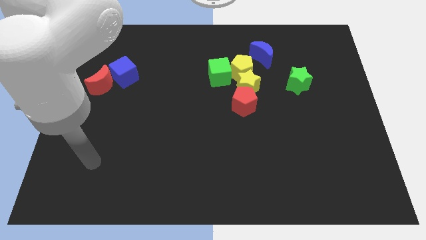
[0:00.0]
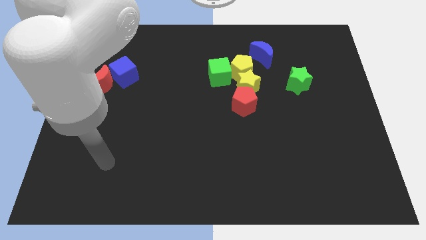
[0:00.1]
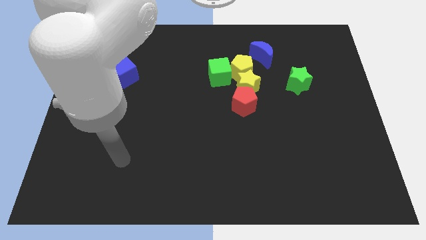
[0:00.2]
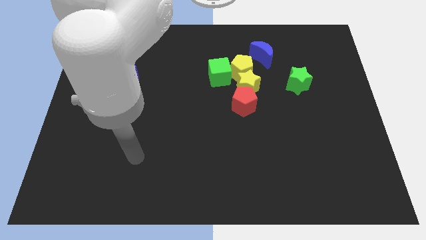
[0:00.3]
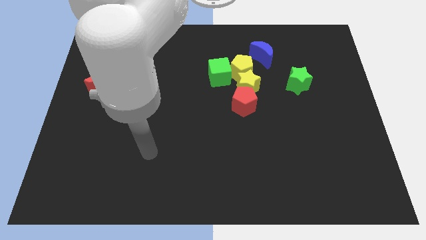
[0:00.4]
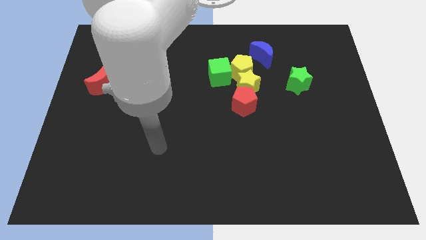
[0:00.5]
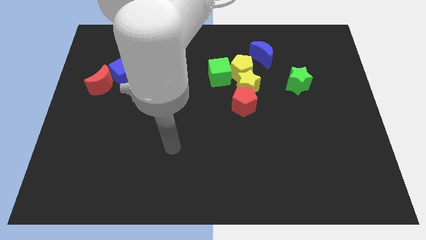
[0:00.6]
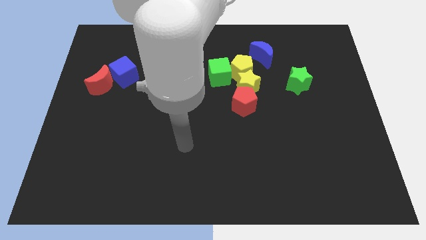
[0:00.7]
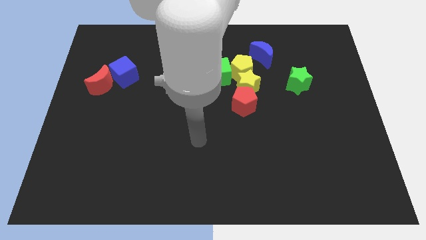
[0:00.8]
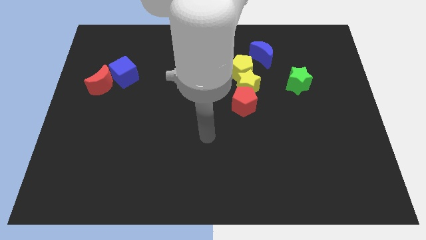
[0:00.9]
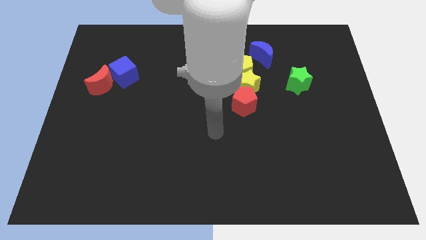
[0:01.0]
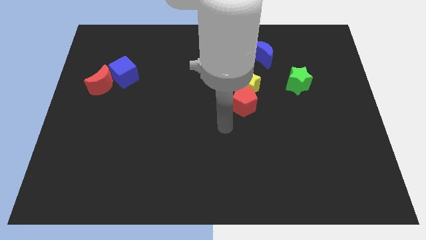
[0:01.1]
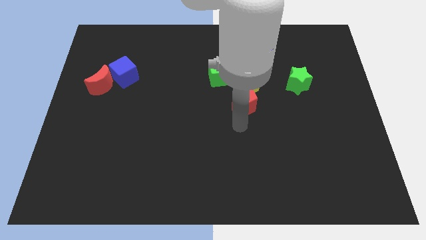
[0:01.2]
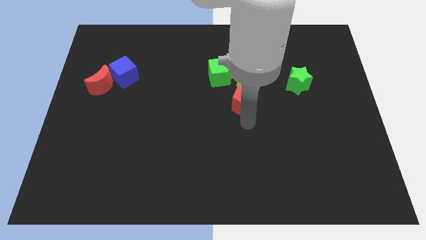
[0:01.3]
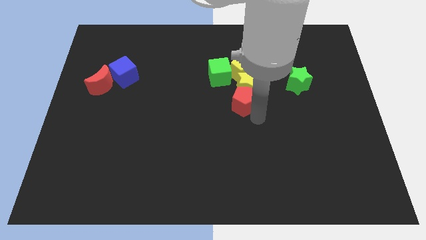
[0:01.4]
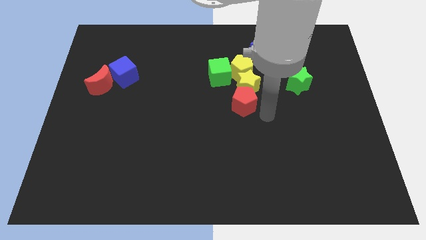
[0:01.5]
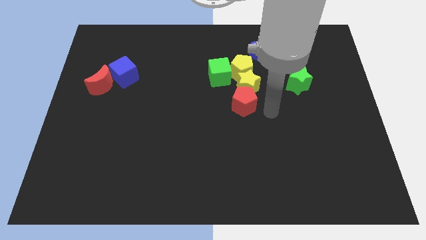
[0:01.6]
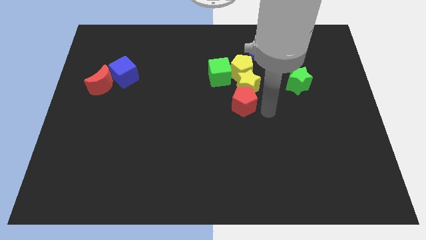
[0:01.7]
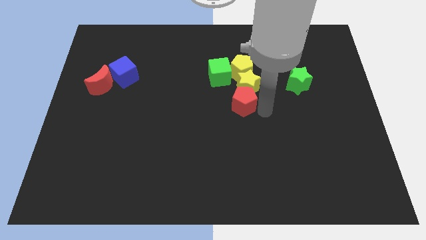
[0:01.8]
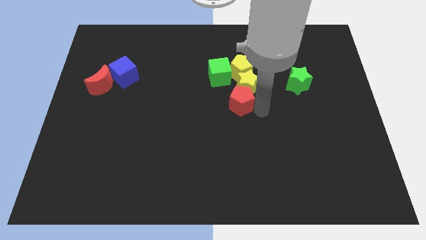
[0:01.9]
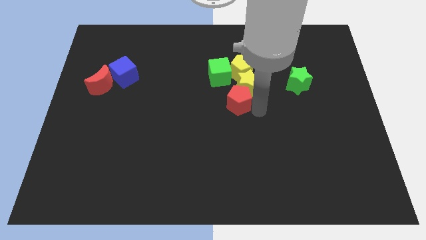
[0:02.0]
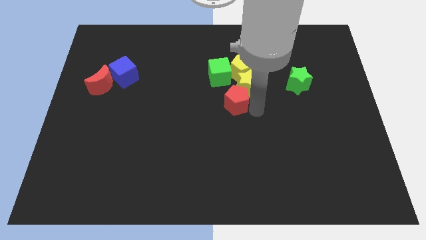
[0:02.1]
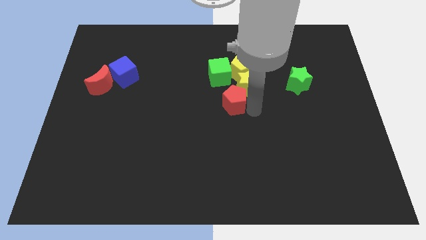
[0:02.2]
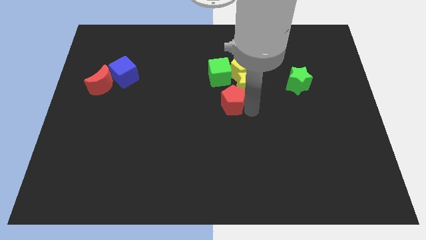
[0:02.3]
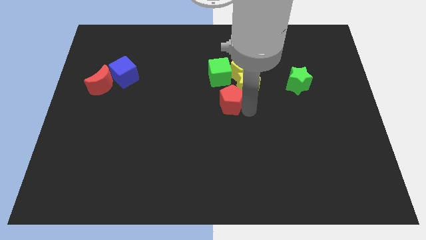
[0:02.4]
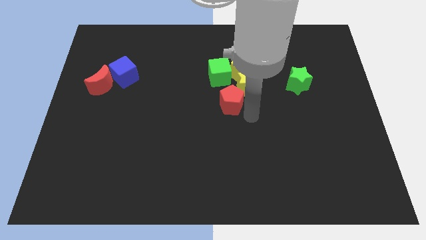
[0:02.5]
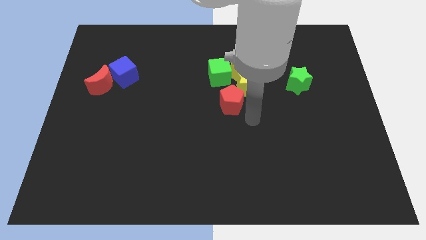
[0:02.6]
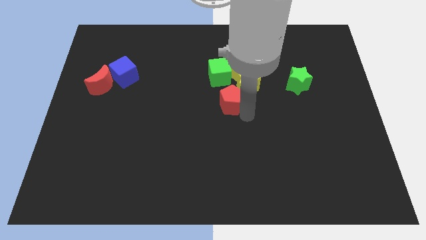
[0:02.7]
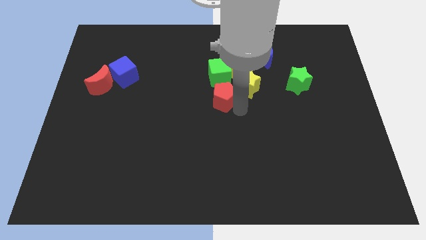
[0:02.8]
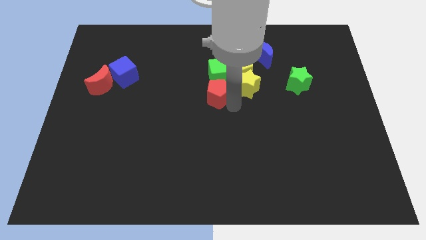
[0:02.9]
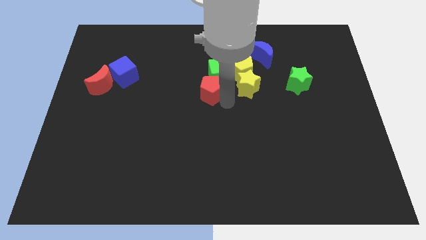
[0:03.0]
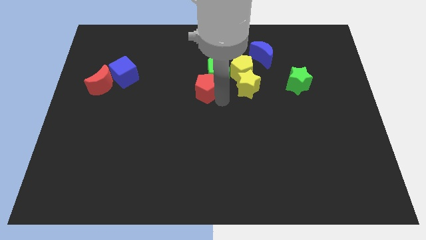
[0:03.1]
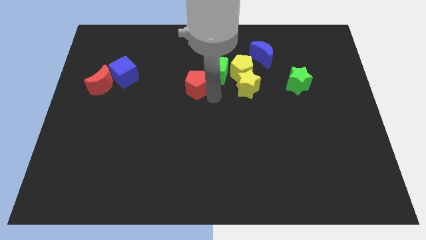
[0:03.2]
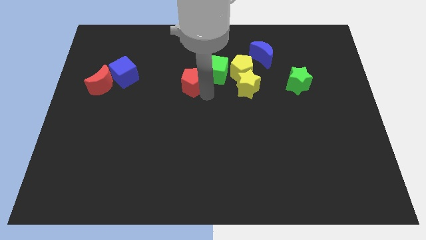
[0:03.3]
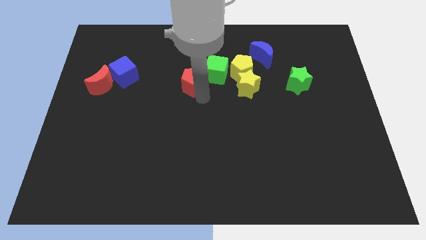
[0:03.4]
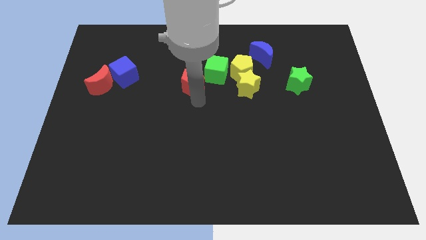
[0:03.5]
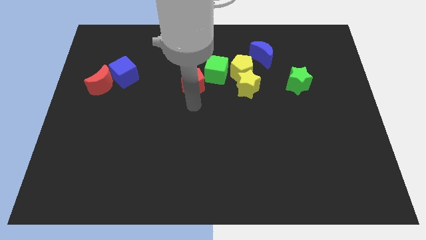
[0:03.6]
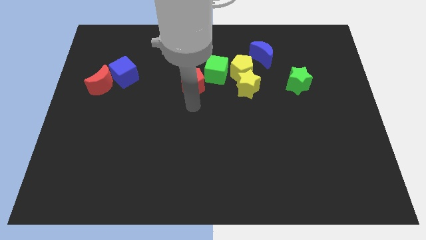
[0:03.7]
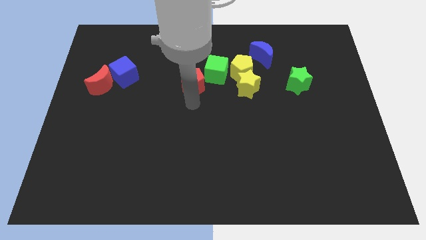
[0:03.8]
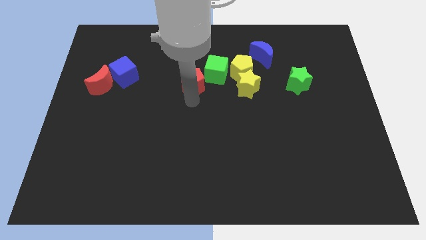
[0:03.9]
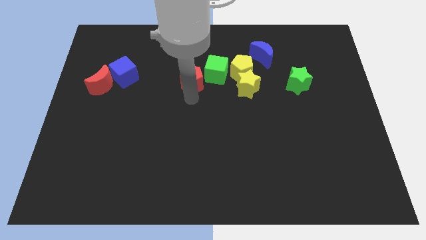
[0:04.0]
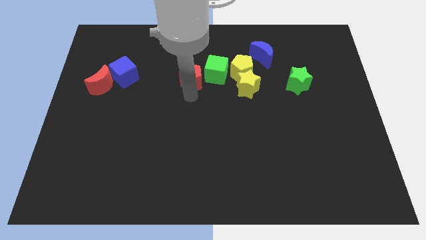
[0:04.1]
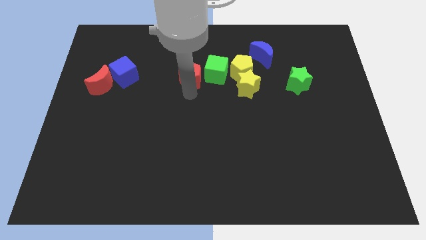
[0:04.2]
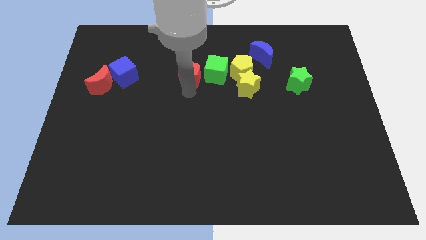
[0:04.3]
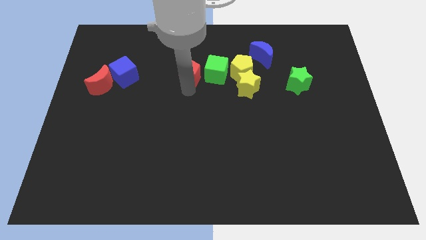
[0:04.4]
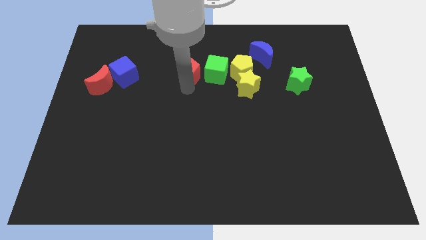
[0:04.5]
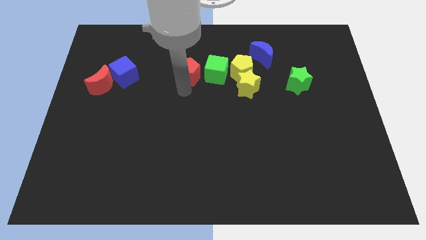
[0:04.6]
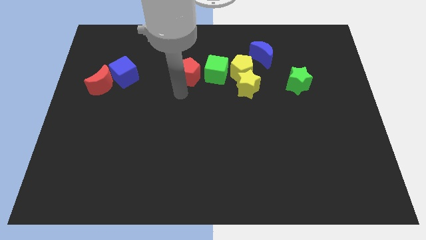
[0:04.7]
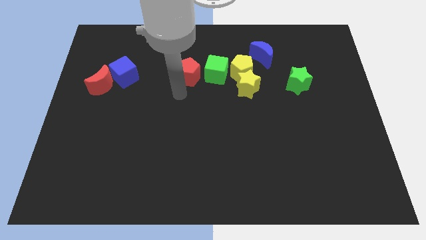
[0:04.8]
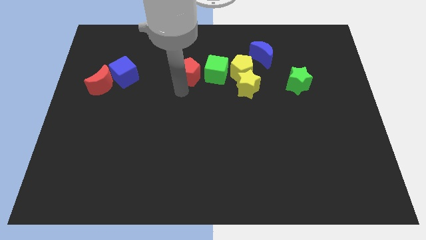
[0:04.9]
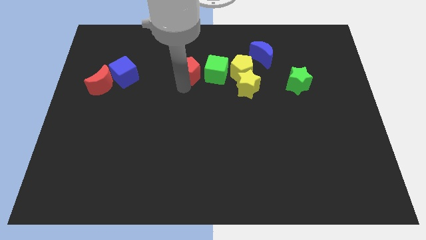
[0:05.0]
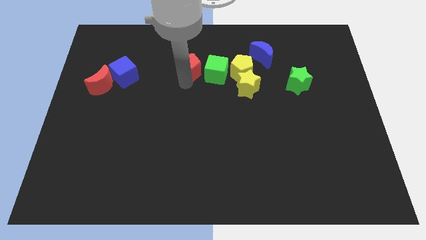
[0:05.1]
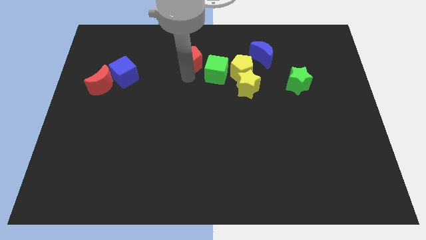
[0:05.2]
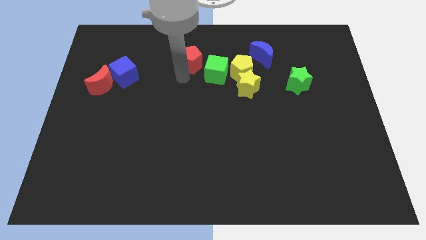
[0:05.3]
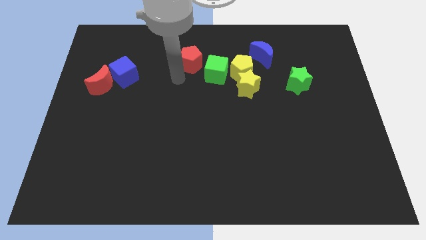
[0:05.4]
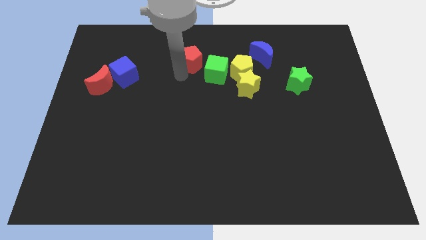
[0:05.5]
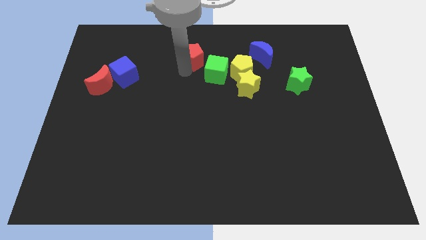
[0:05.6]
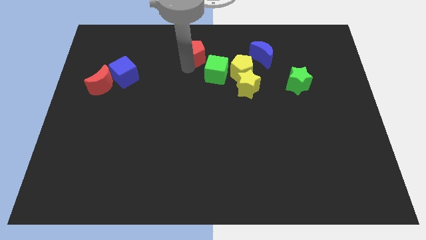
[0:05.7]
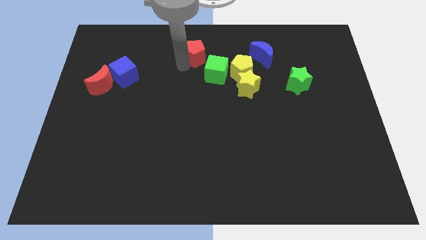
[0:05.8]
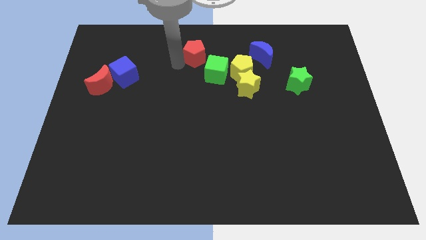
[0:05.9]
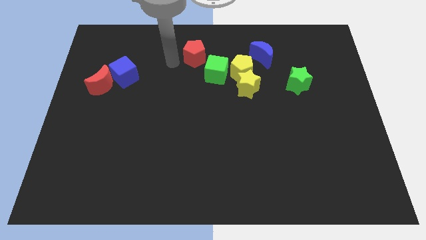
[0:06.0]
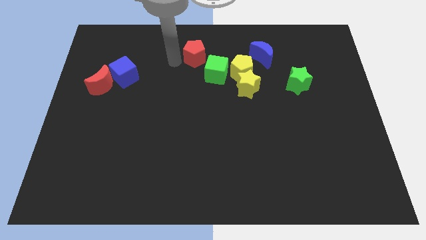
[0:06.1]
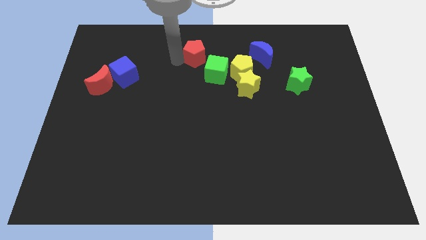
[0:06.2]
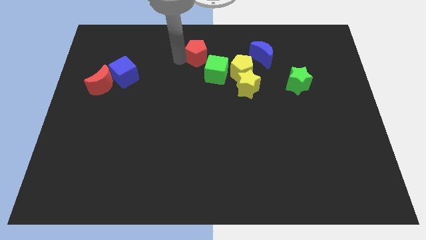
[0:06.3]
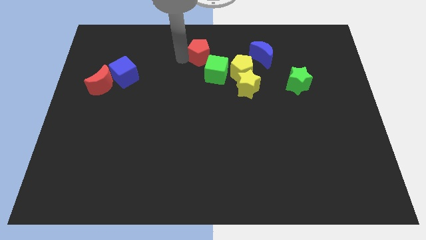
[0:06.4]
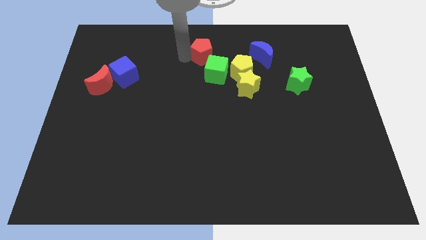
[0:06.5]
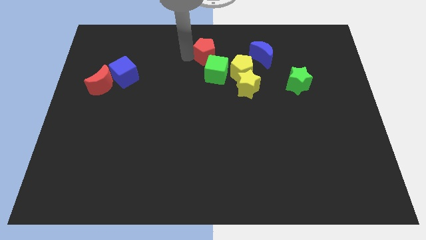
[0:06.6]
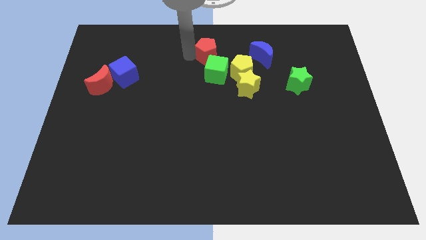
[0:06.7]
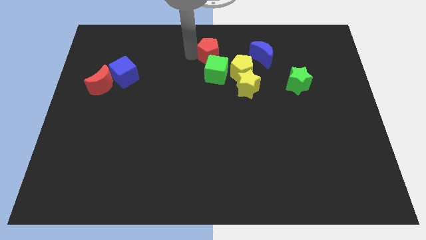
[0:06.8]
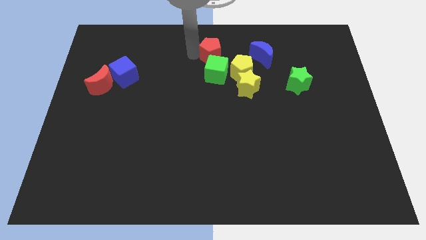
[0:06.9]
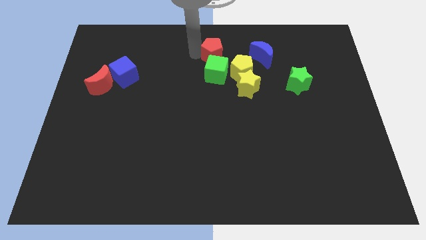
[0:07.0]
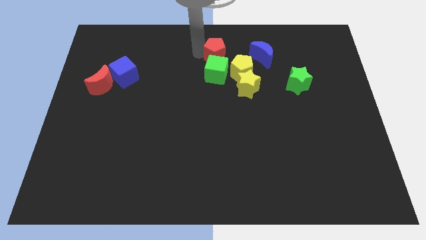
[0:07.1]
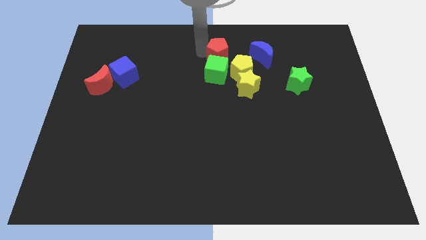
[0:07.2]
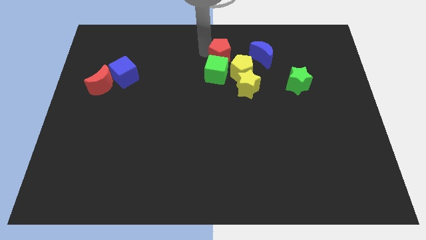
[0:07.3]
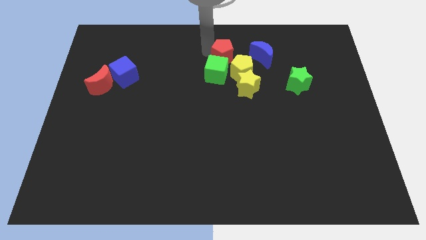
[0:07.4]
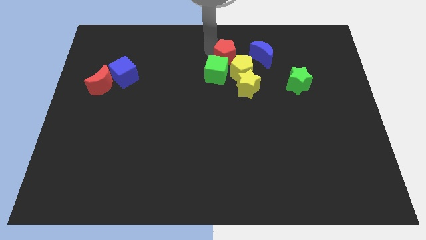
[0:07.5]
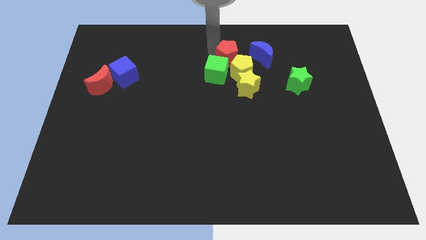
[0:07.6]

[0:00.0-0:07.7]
slide the red pentagon to the top side of the yellow star
